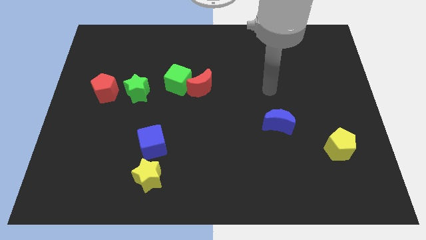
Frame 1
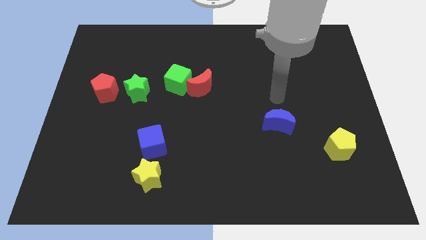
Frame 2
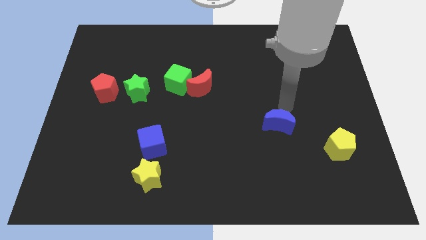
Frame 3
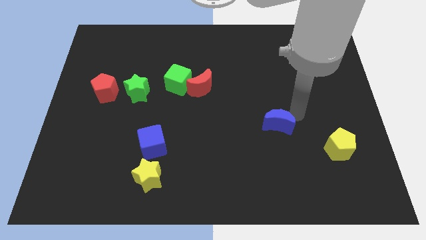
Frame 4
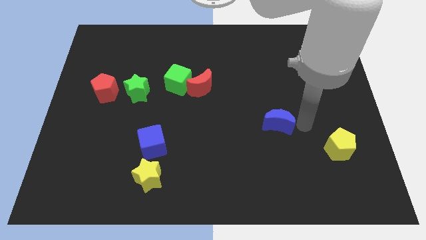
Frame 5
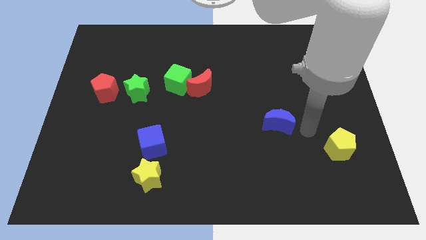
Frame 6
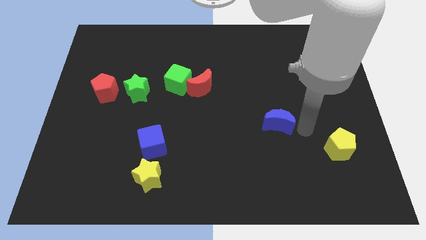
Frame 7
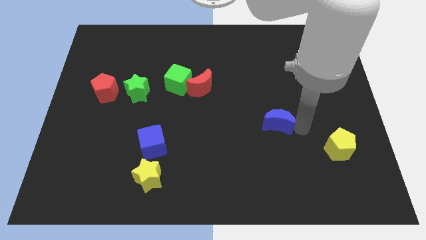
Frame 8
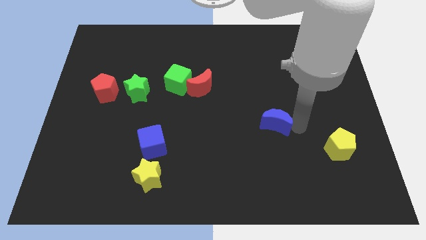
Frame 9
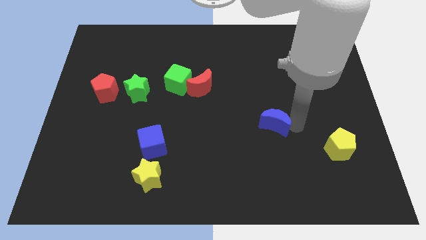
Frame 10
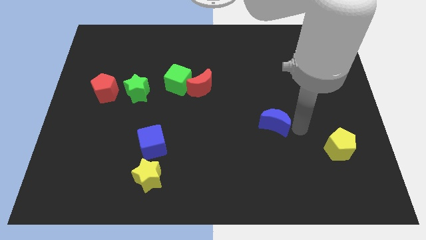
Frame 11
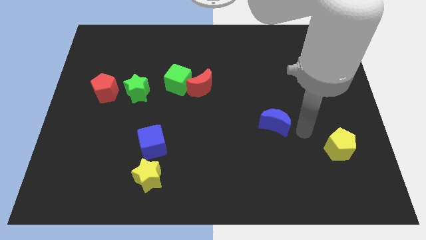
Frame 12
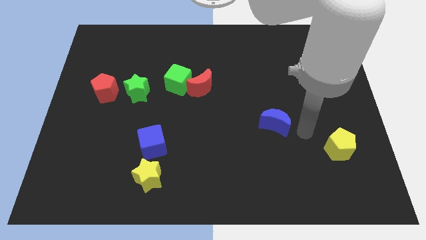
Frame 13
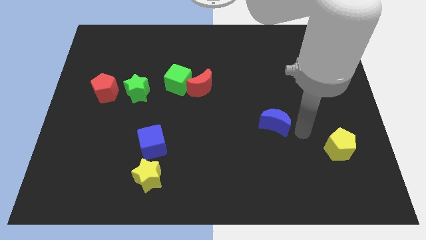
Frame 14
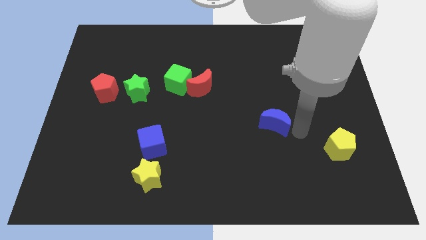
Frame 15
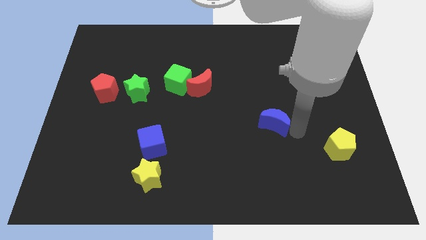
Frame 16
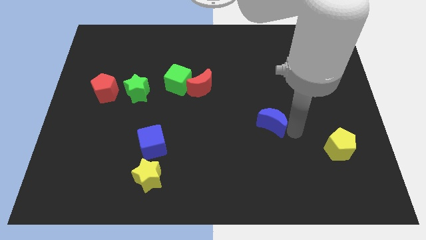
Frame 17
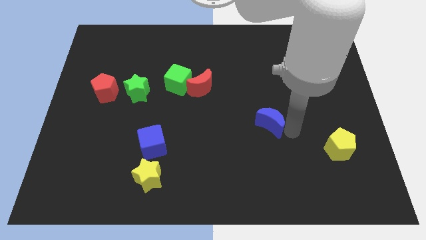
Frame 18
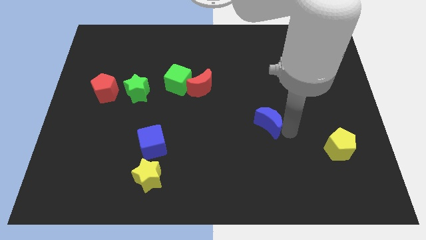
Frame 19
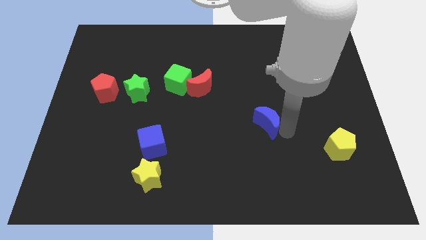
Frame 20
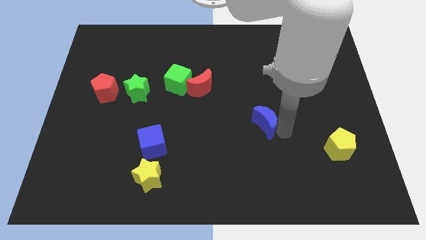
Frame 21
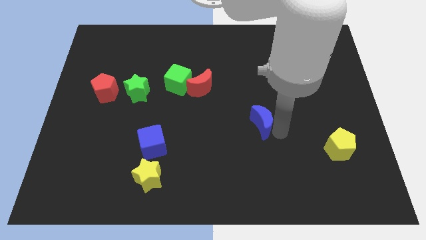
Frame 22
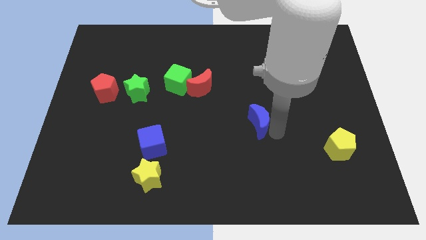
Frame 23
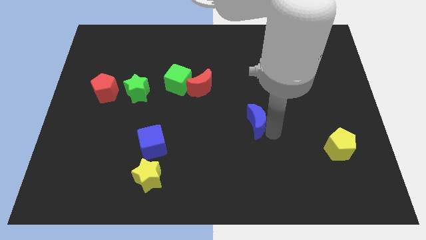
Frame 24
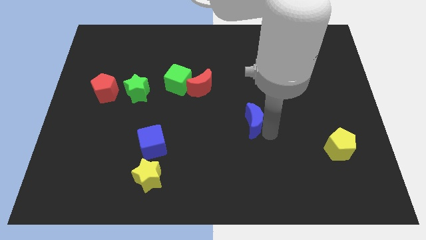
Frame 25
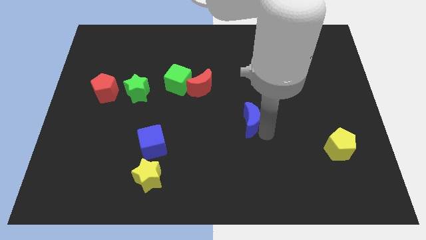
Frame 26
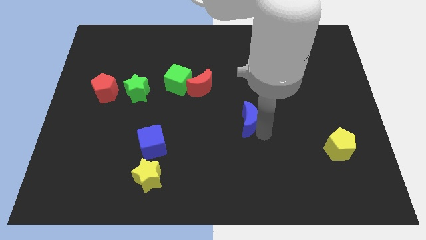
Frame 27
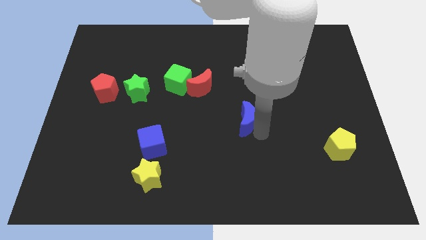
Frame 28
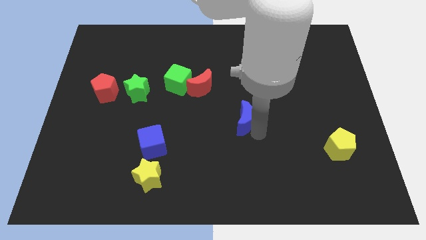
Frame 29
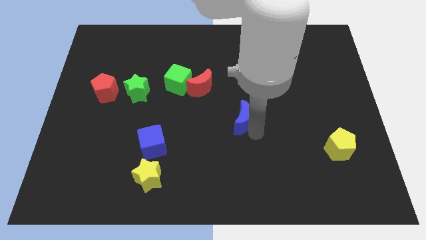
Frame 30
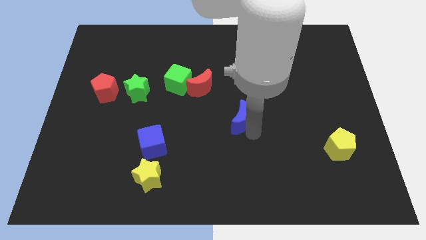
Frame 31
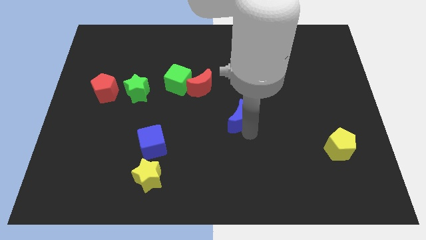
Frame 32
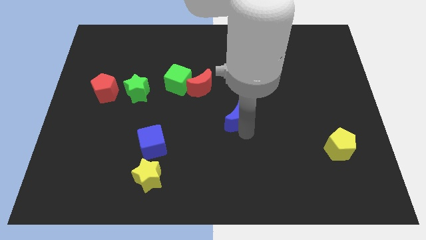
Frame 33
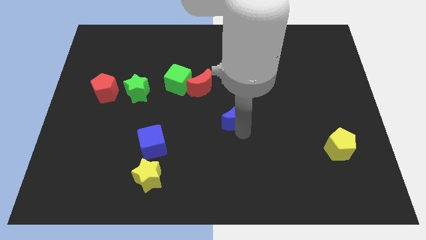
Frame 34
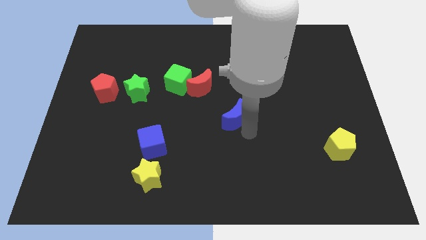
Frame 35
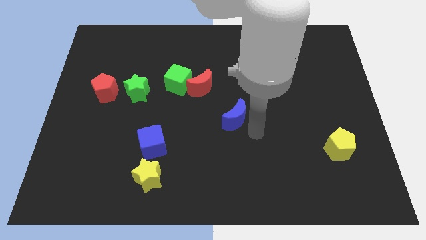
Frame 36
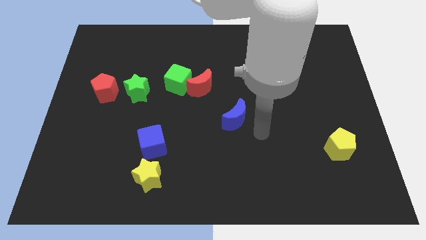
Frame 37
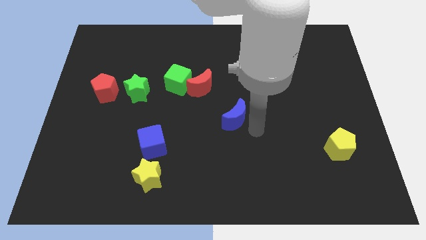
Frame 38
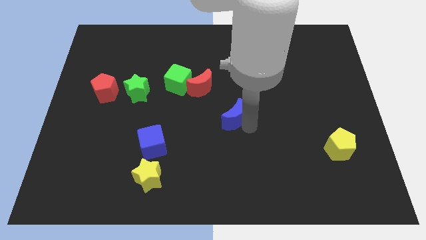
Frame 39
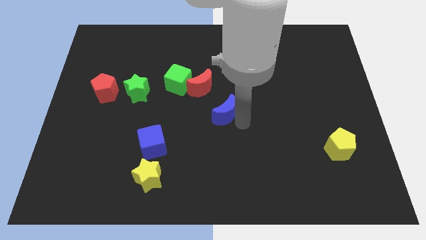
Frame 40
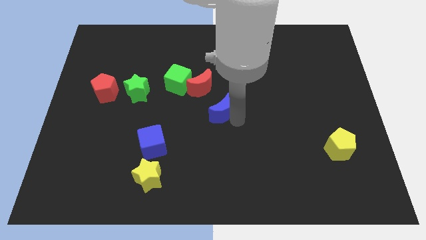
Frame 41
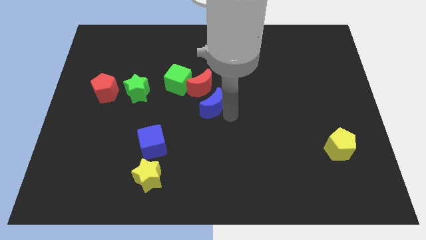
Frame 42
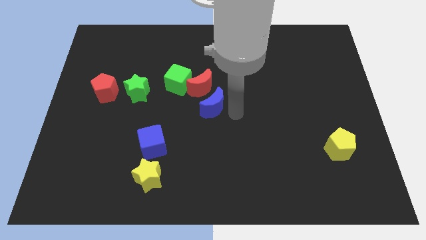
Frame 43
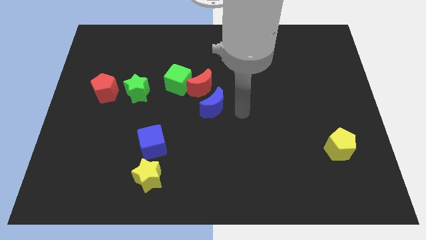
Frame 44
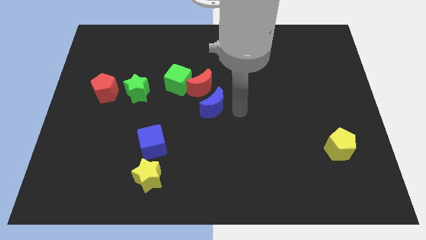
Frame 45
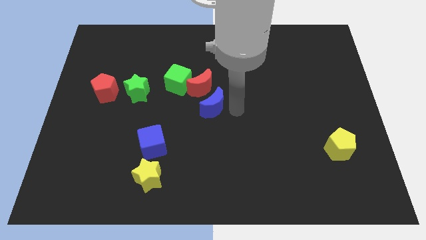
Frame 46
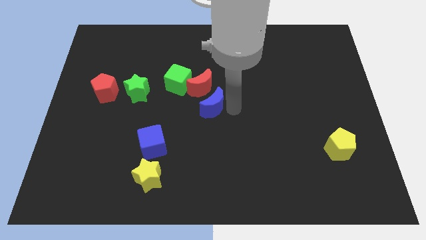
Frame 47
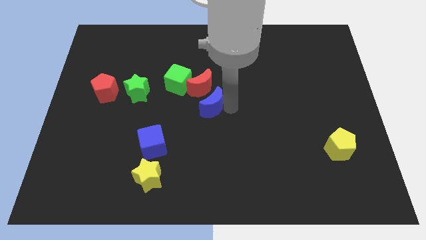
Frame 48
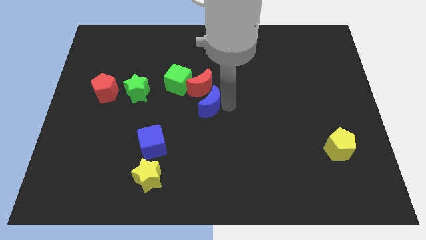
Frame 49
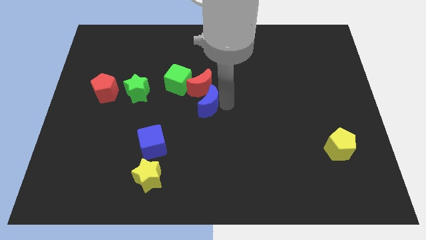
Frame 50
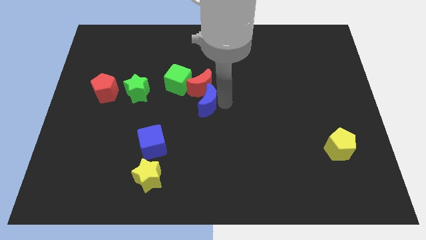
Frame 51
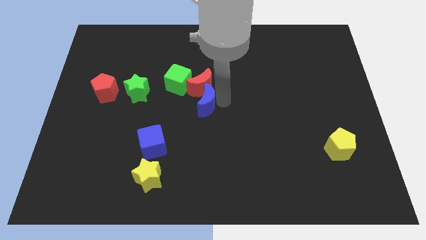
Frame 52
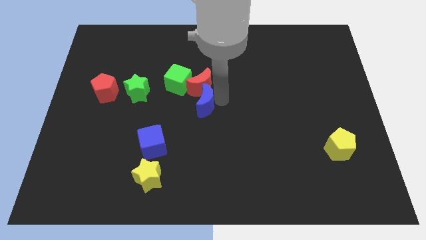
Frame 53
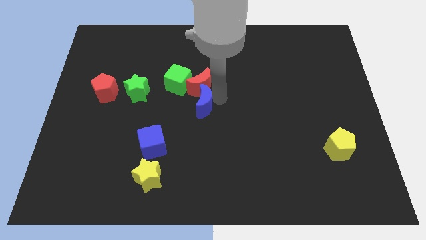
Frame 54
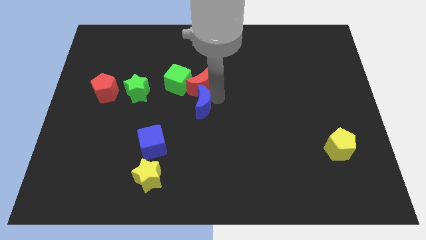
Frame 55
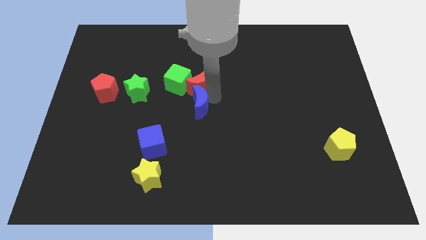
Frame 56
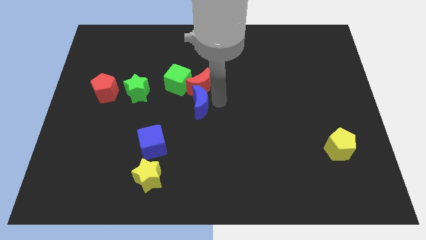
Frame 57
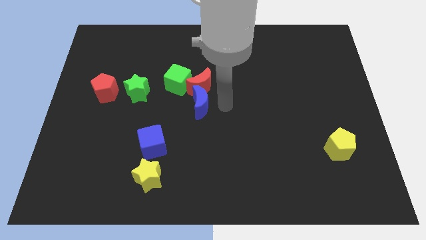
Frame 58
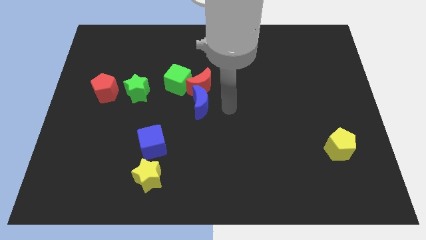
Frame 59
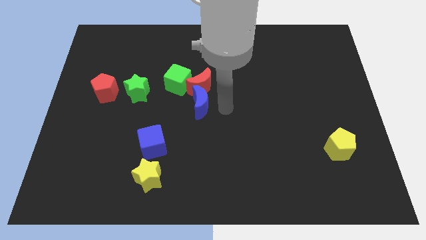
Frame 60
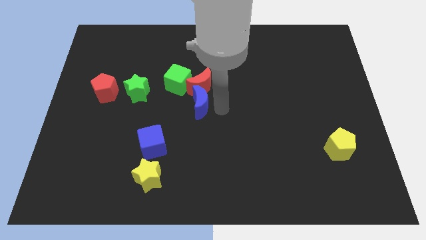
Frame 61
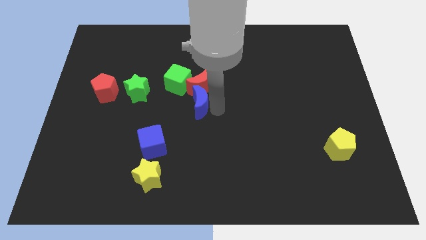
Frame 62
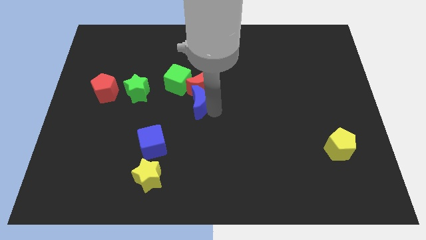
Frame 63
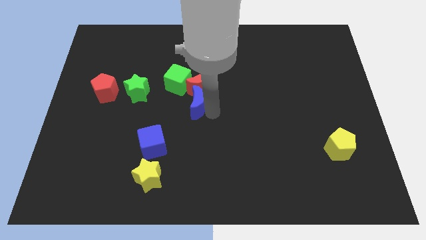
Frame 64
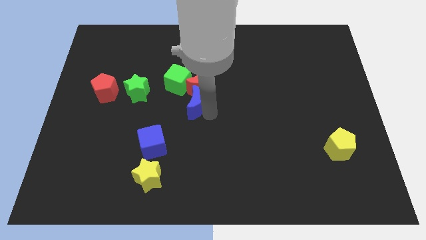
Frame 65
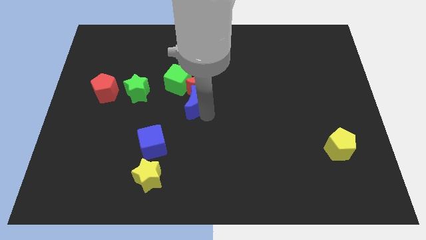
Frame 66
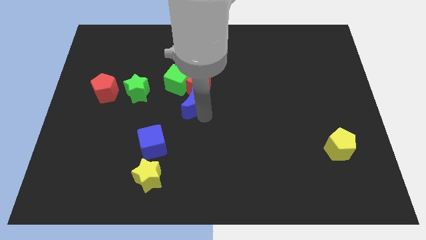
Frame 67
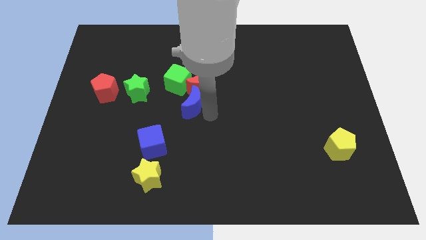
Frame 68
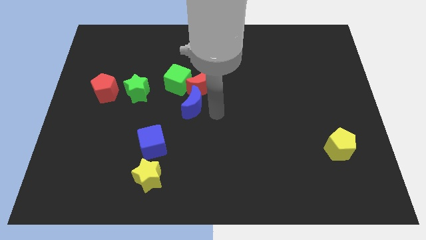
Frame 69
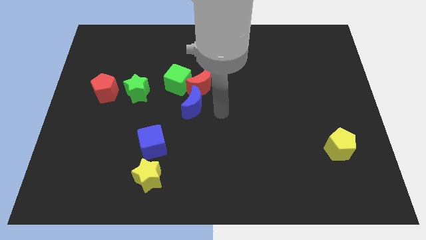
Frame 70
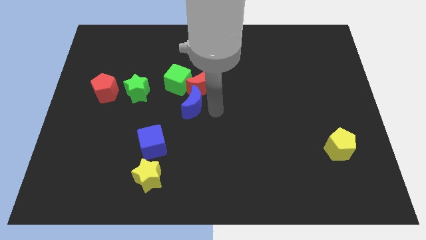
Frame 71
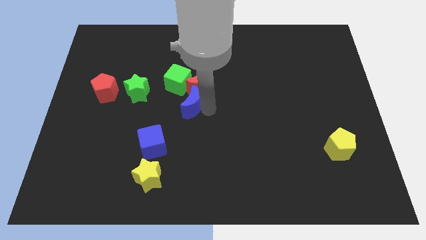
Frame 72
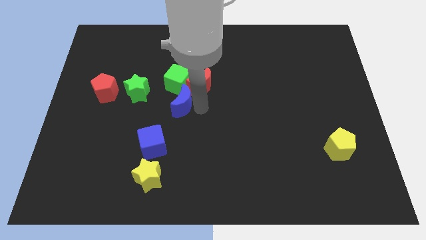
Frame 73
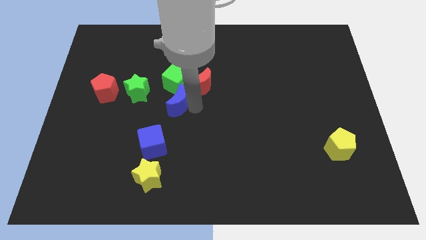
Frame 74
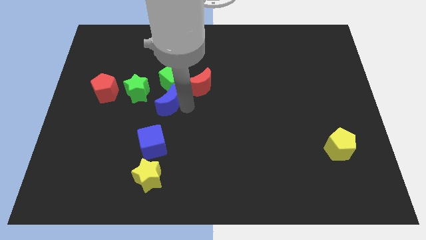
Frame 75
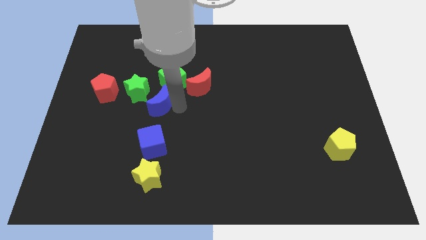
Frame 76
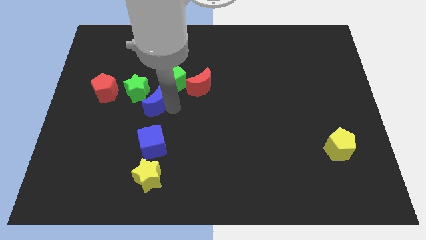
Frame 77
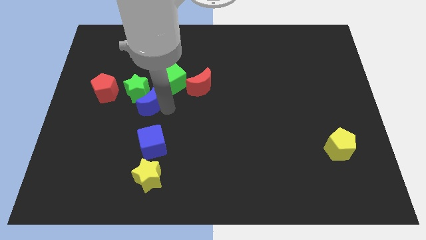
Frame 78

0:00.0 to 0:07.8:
put the blue moon towards the green star

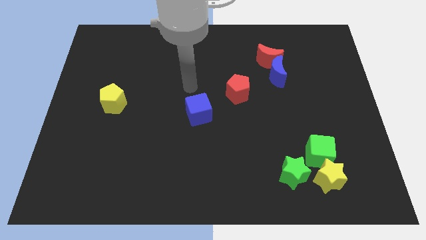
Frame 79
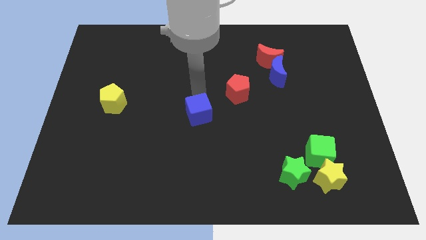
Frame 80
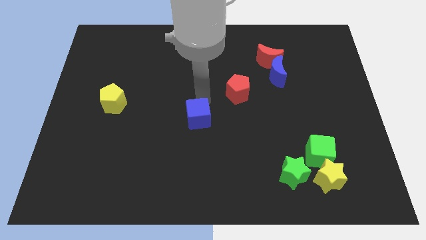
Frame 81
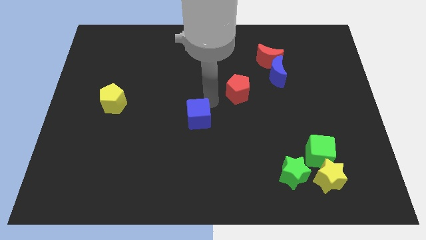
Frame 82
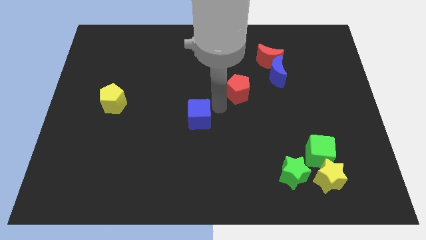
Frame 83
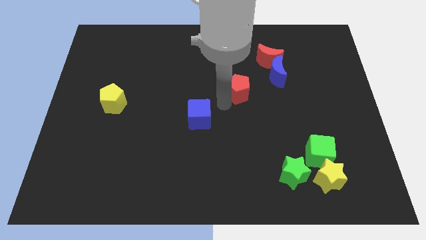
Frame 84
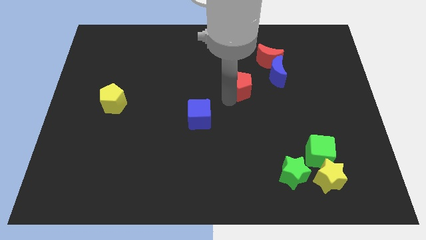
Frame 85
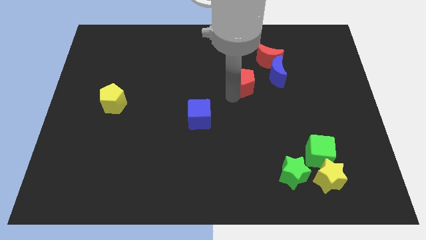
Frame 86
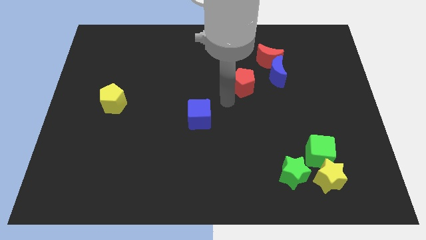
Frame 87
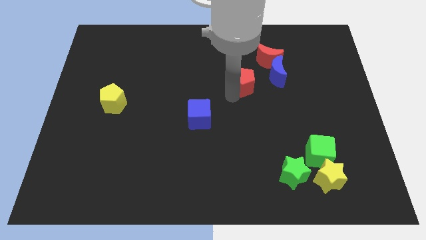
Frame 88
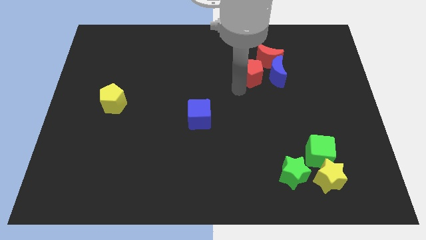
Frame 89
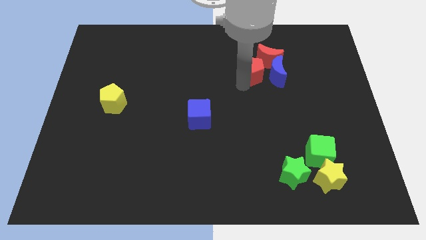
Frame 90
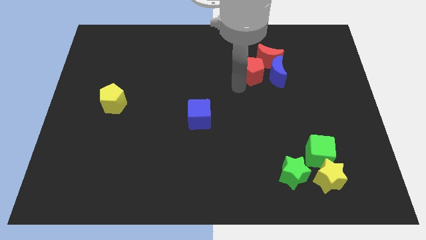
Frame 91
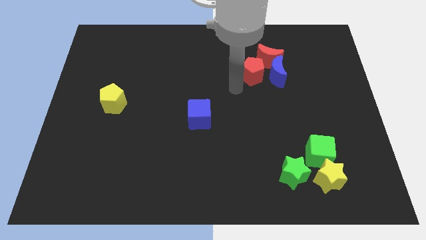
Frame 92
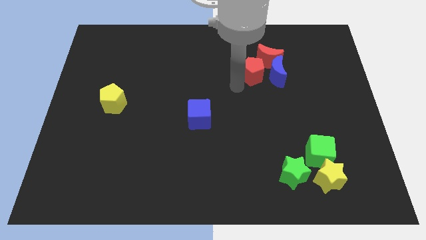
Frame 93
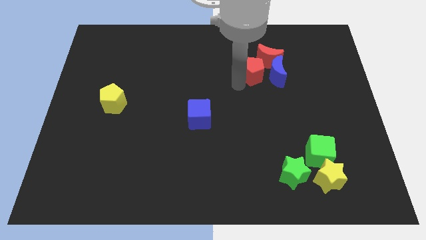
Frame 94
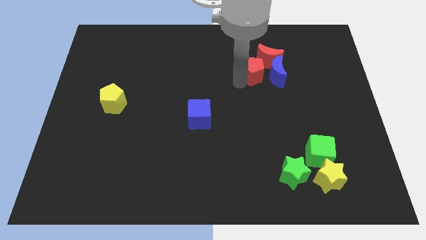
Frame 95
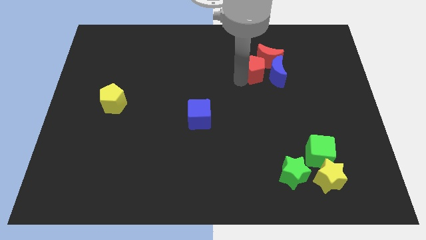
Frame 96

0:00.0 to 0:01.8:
slide the red pentagon next to the red moon
